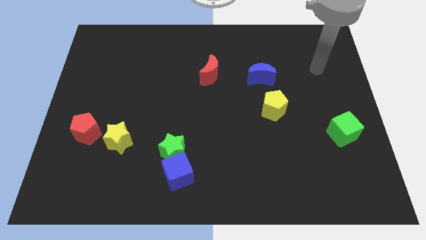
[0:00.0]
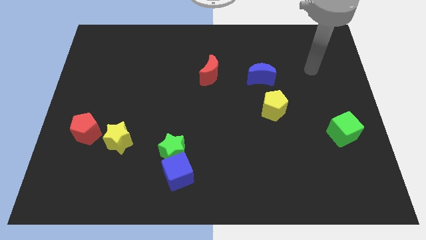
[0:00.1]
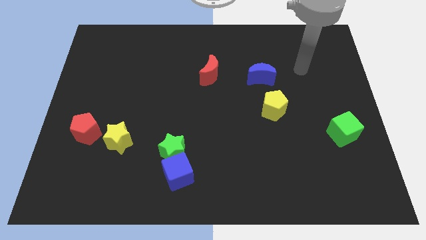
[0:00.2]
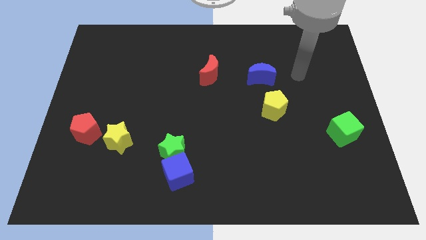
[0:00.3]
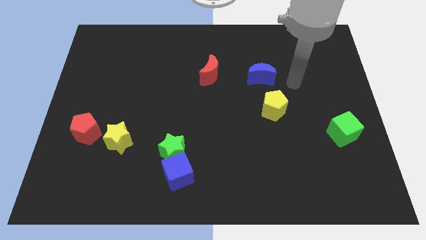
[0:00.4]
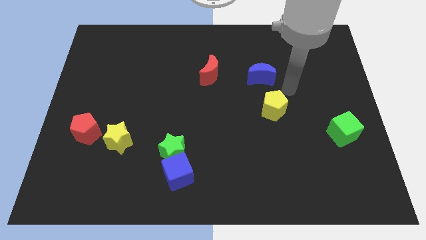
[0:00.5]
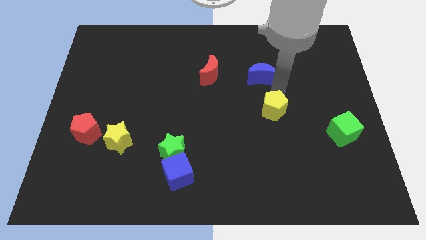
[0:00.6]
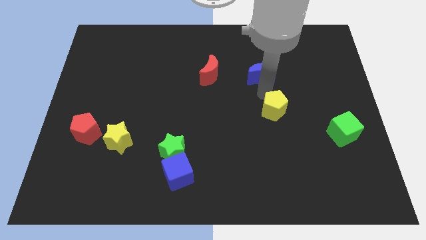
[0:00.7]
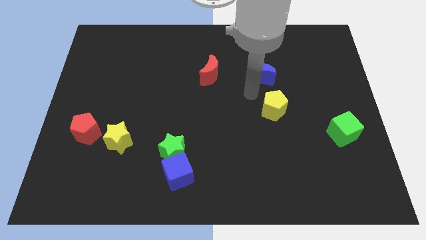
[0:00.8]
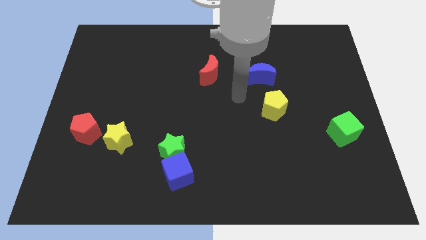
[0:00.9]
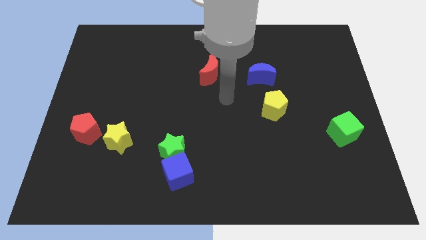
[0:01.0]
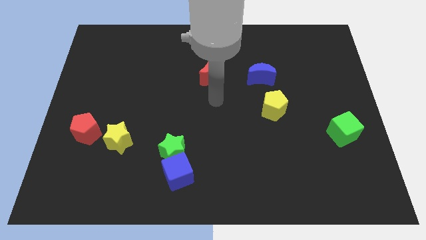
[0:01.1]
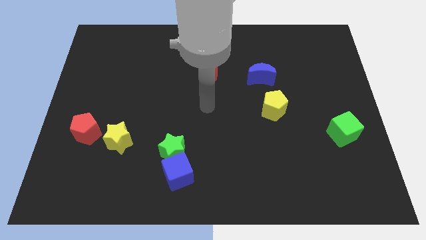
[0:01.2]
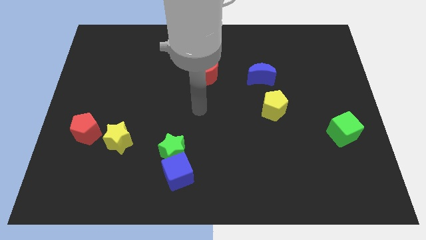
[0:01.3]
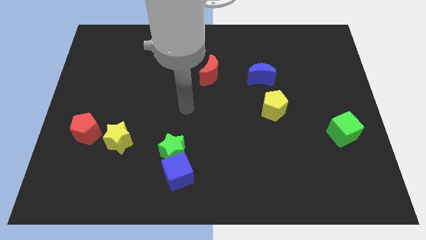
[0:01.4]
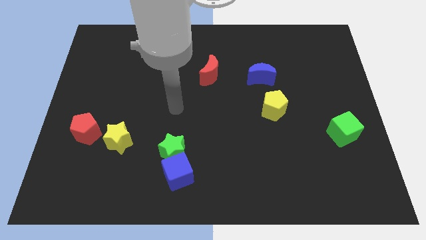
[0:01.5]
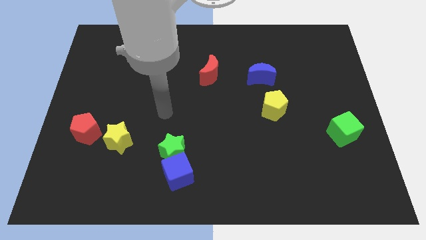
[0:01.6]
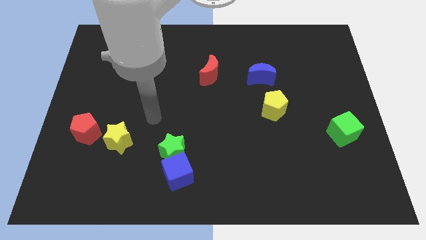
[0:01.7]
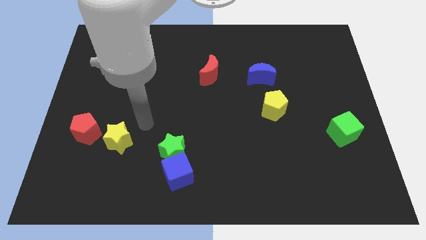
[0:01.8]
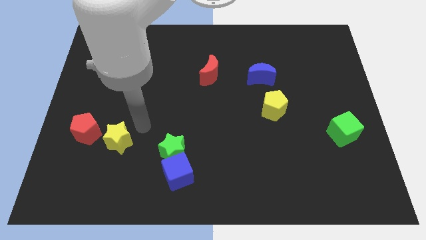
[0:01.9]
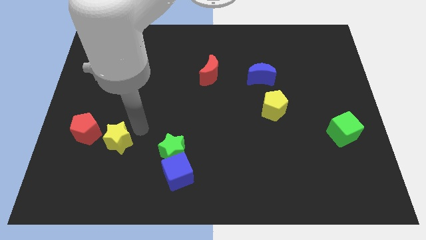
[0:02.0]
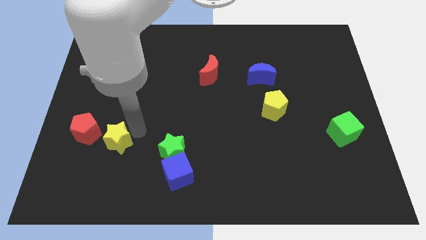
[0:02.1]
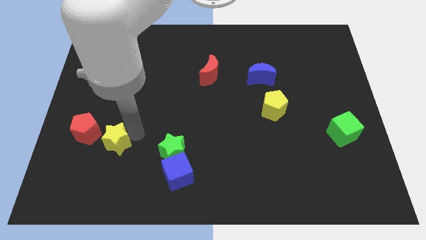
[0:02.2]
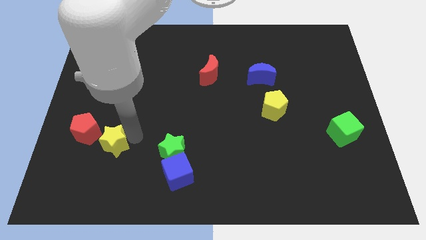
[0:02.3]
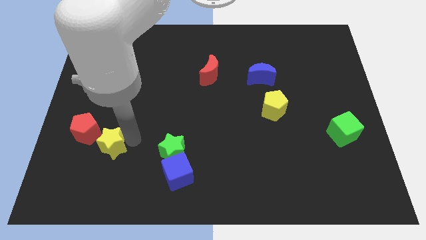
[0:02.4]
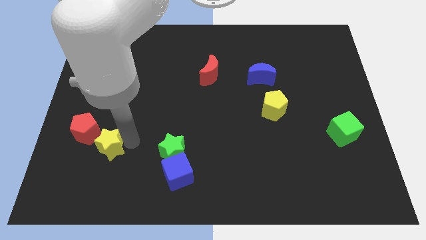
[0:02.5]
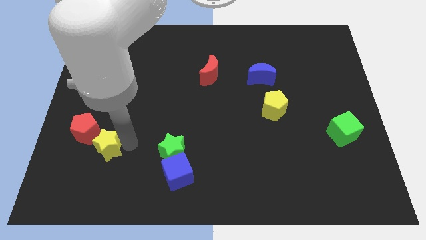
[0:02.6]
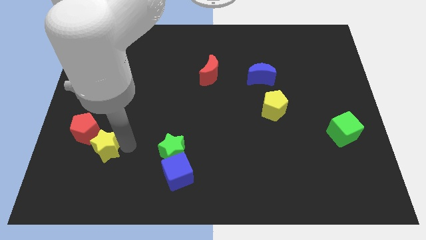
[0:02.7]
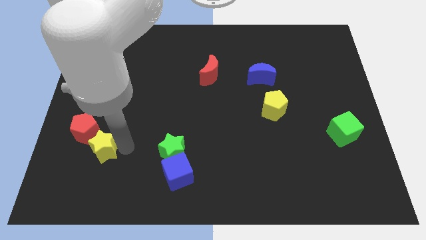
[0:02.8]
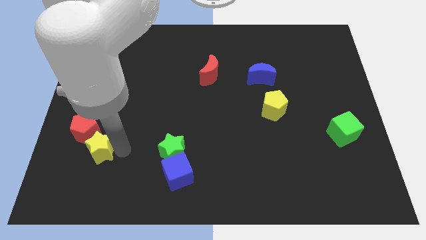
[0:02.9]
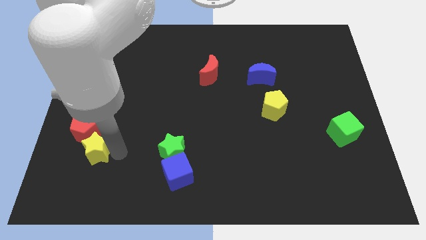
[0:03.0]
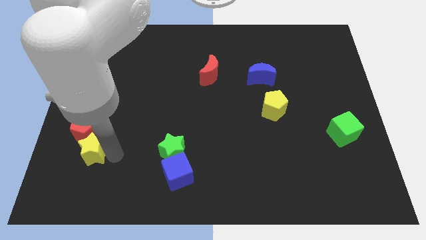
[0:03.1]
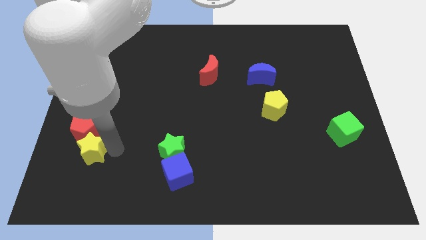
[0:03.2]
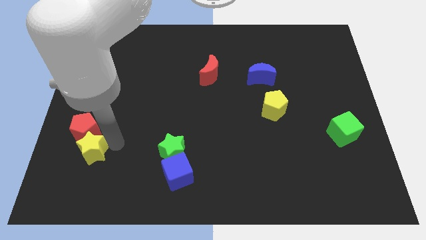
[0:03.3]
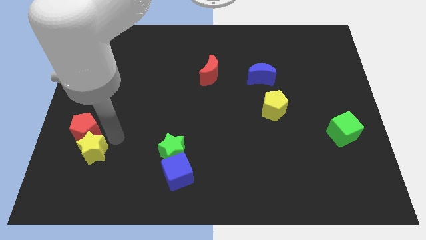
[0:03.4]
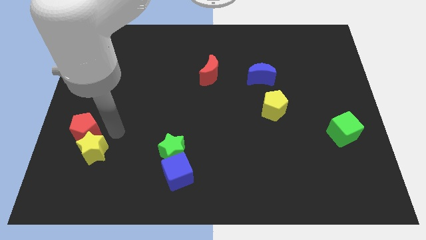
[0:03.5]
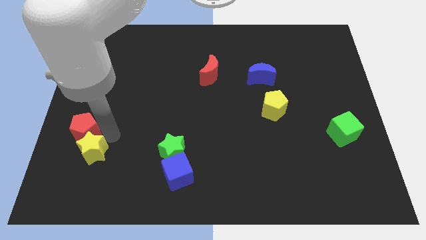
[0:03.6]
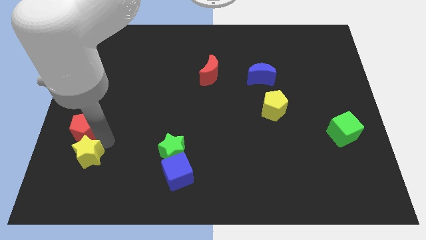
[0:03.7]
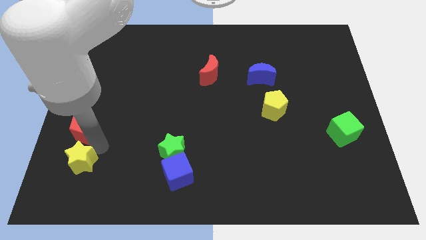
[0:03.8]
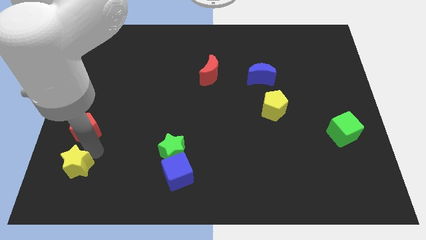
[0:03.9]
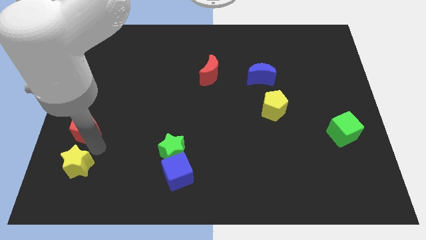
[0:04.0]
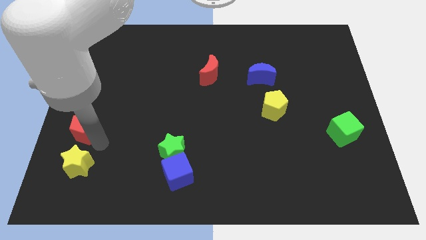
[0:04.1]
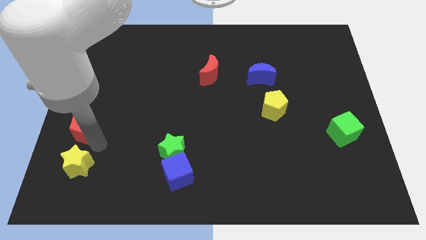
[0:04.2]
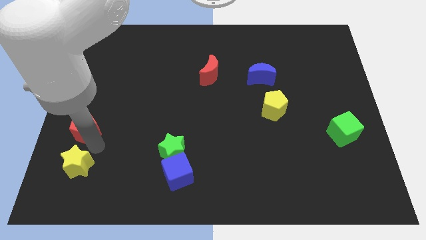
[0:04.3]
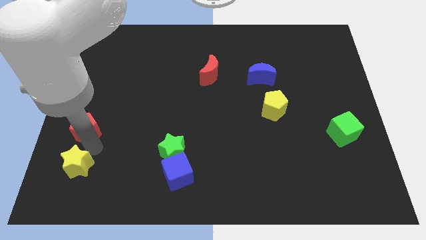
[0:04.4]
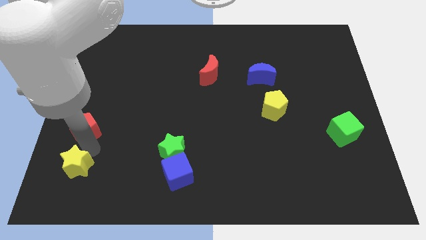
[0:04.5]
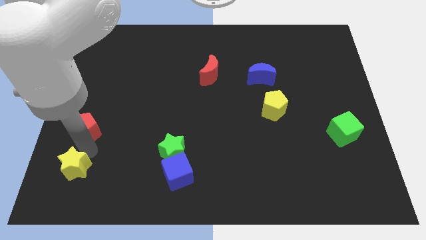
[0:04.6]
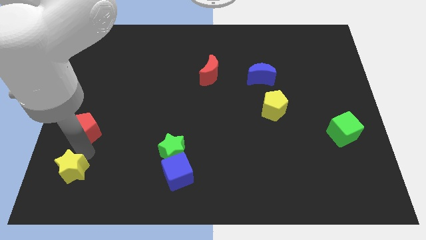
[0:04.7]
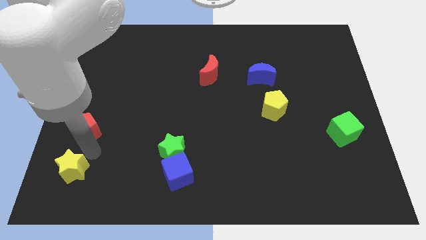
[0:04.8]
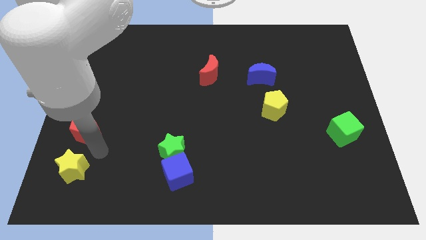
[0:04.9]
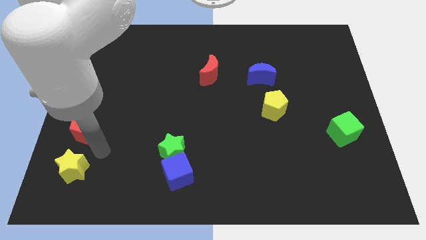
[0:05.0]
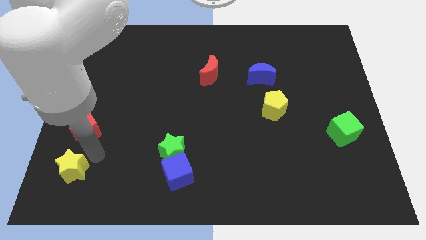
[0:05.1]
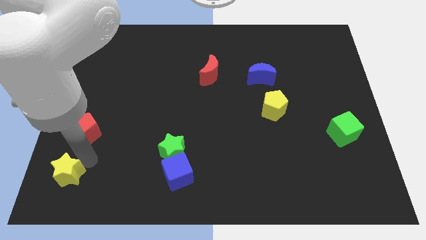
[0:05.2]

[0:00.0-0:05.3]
put the yellow star to the bottom left

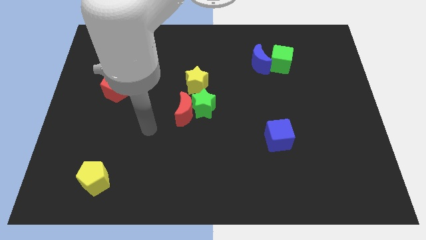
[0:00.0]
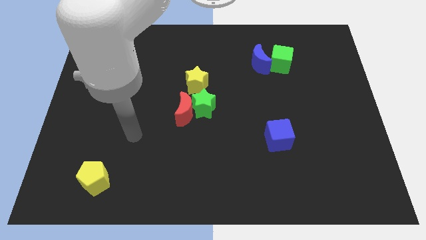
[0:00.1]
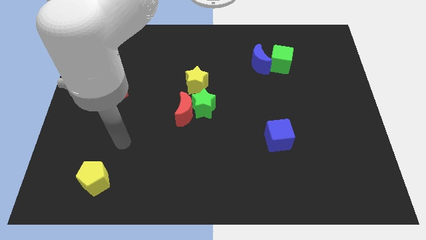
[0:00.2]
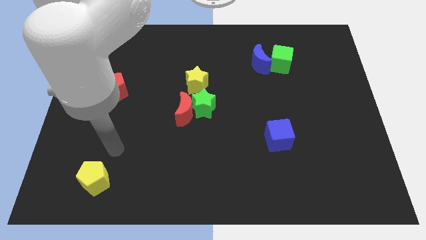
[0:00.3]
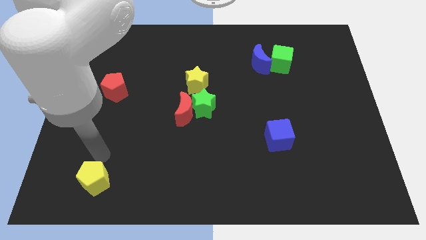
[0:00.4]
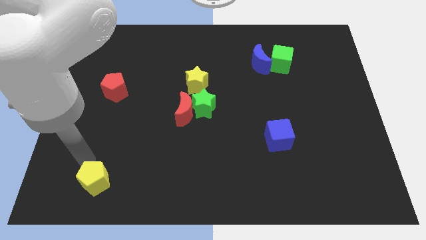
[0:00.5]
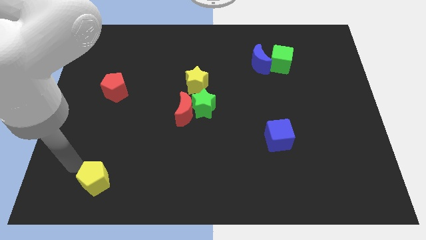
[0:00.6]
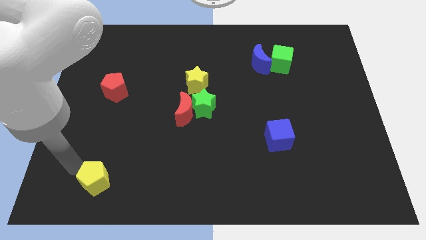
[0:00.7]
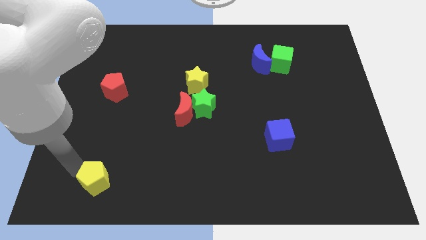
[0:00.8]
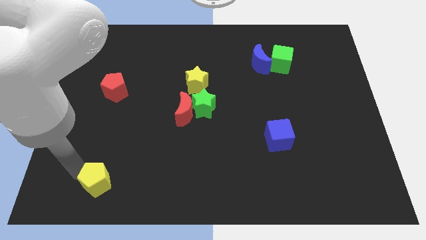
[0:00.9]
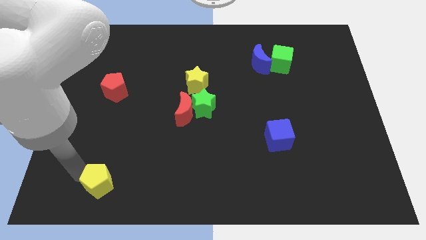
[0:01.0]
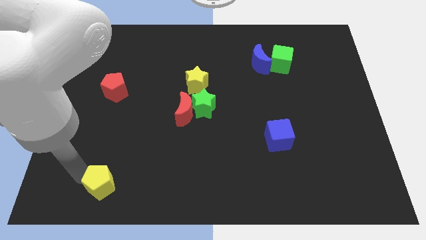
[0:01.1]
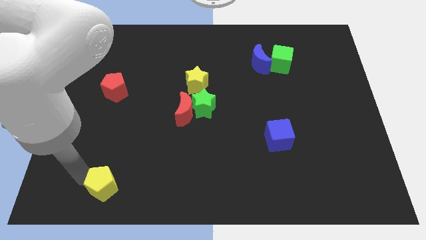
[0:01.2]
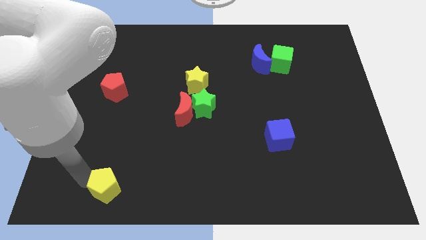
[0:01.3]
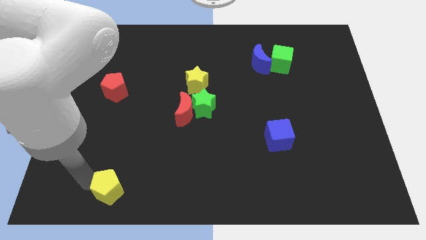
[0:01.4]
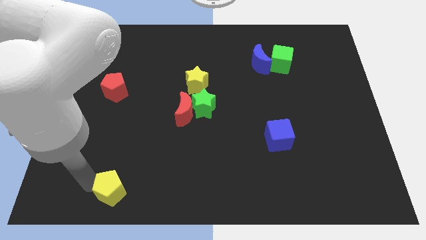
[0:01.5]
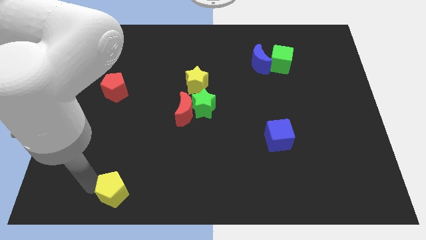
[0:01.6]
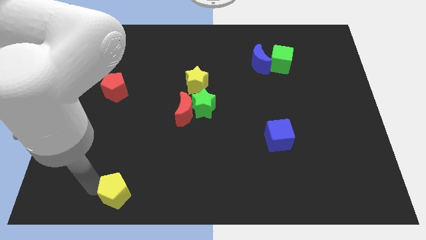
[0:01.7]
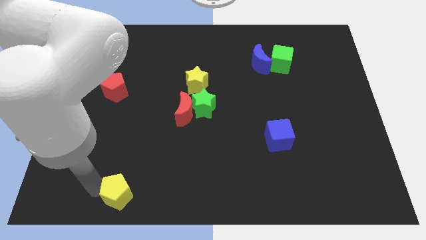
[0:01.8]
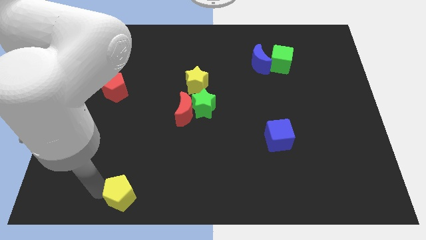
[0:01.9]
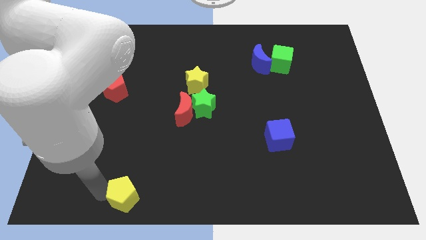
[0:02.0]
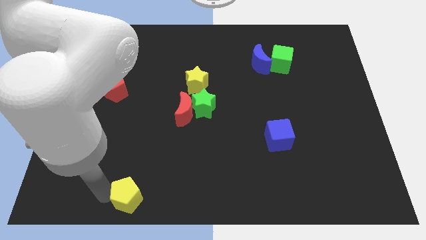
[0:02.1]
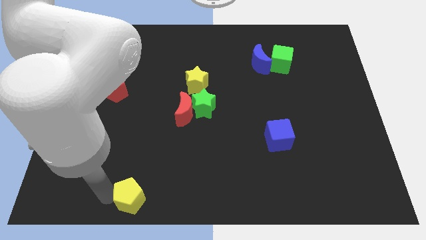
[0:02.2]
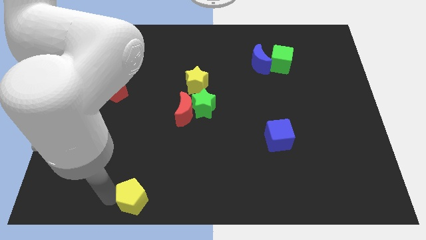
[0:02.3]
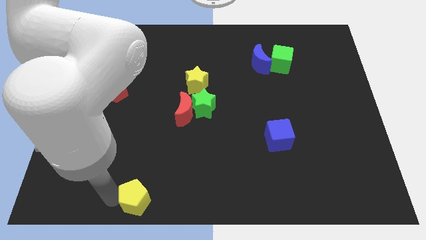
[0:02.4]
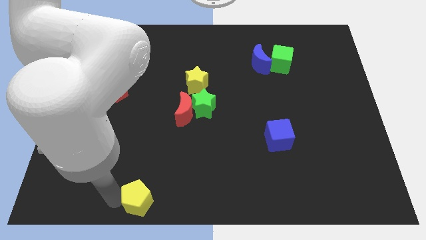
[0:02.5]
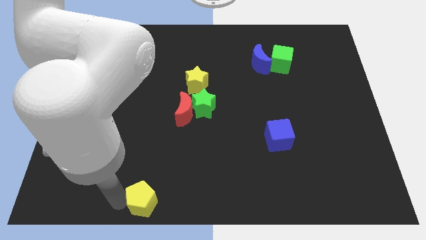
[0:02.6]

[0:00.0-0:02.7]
put the yellow pentagon to the bottom
